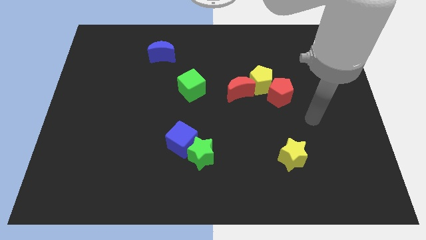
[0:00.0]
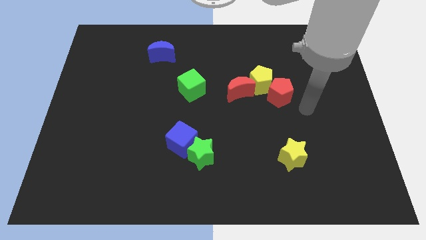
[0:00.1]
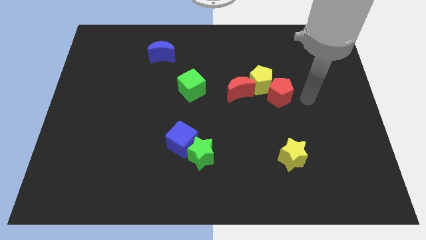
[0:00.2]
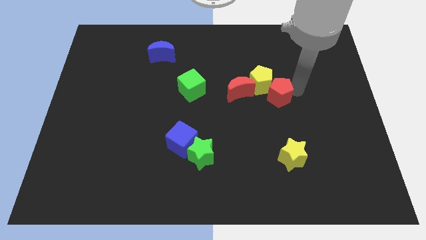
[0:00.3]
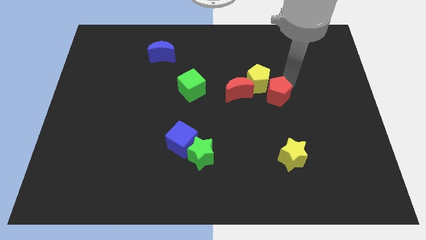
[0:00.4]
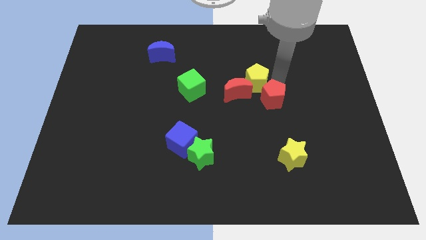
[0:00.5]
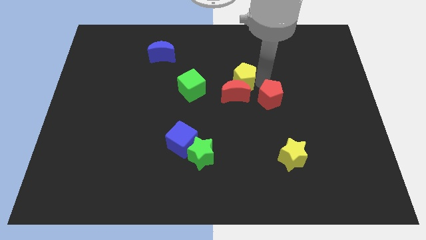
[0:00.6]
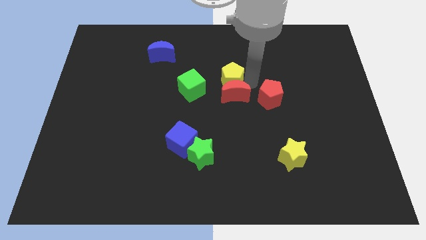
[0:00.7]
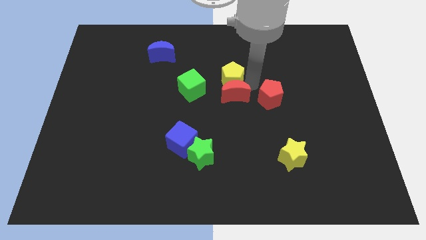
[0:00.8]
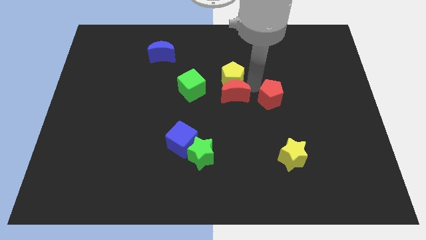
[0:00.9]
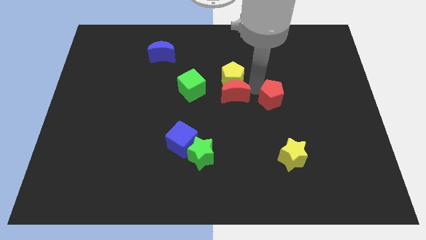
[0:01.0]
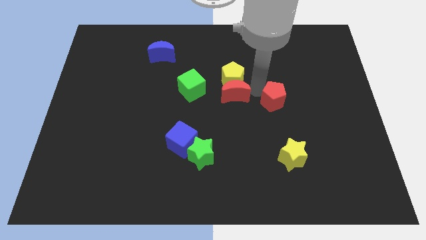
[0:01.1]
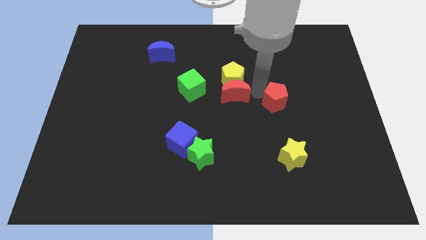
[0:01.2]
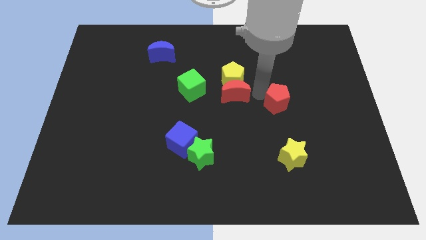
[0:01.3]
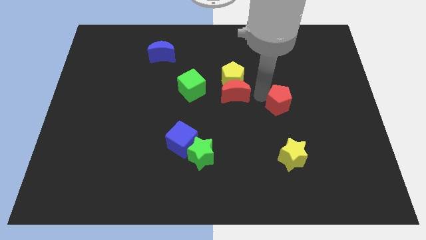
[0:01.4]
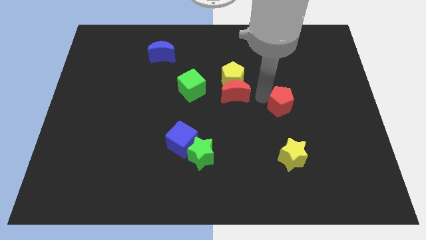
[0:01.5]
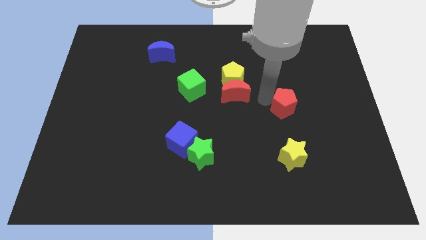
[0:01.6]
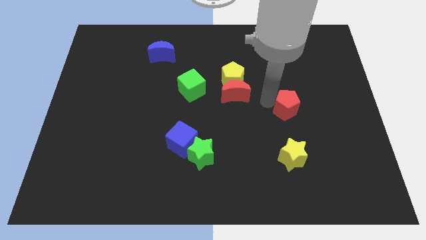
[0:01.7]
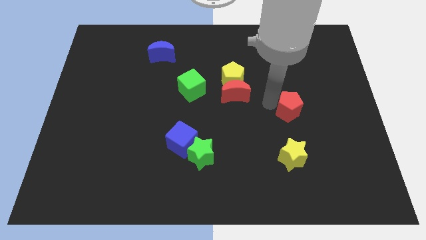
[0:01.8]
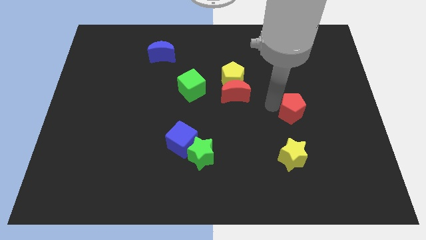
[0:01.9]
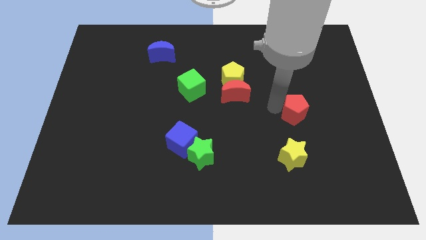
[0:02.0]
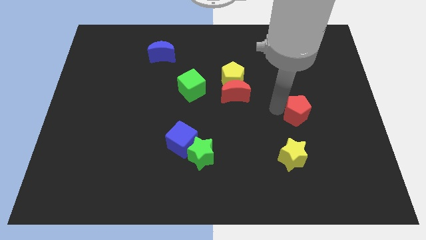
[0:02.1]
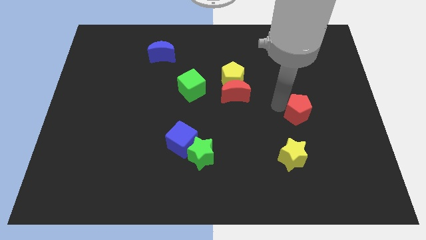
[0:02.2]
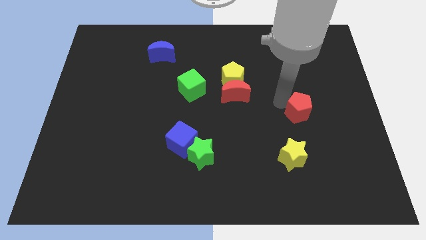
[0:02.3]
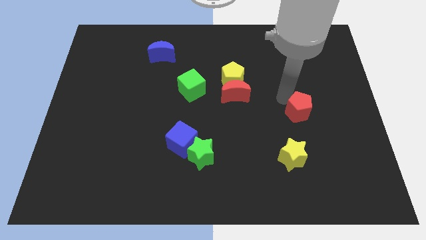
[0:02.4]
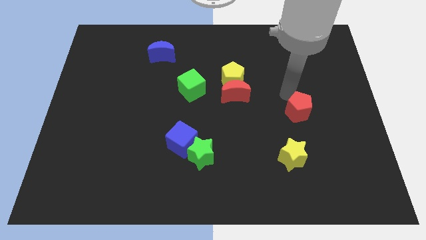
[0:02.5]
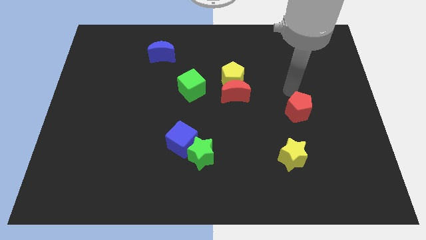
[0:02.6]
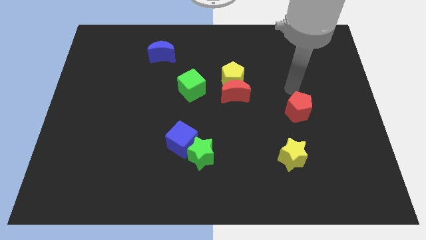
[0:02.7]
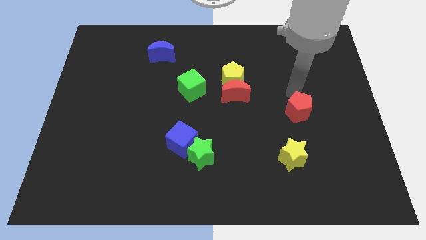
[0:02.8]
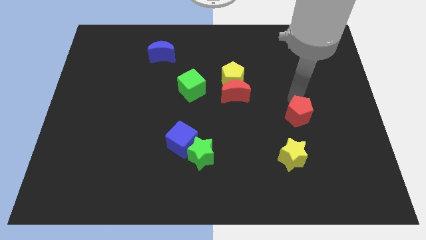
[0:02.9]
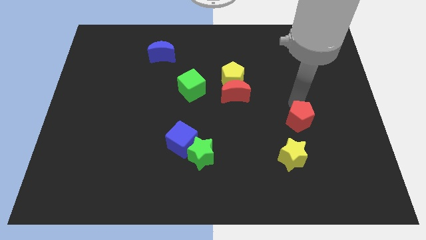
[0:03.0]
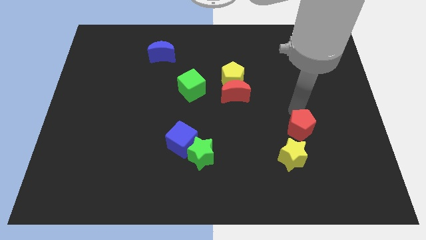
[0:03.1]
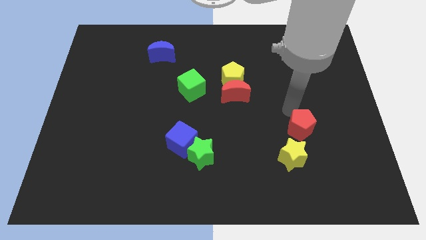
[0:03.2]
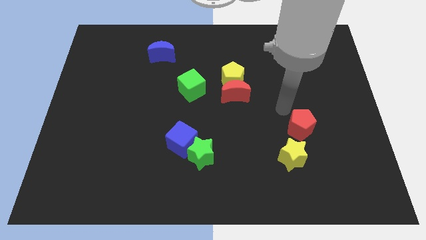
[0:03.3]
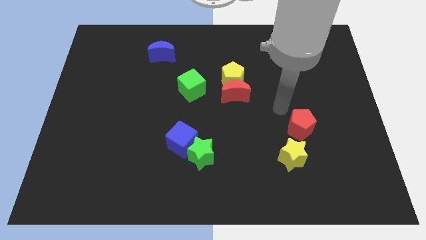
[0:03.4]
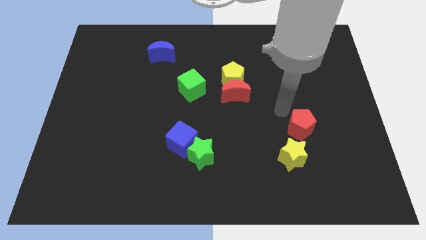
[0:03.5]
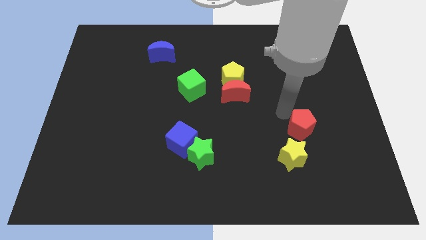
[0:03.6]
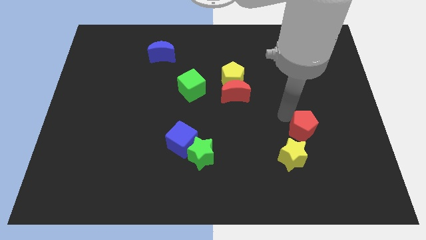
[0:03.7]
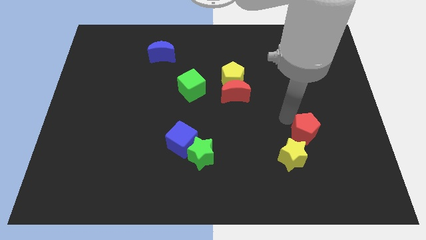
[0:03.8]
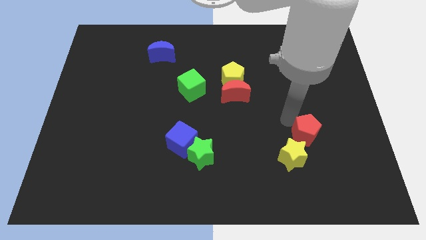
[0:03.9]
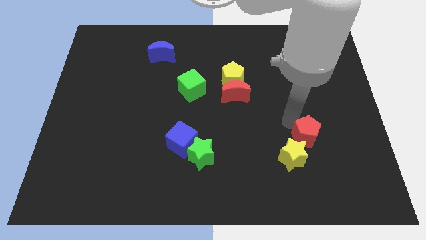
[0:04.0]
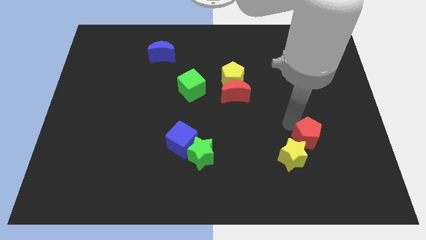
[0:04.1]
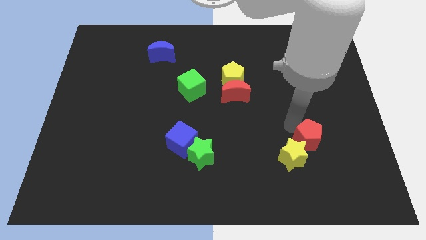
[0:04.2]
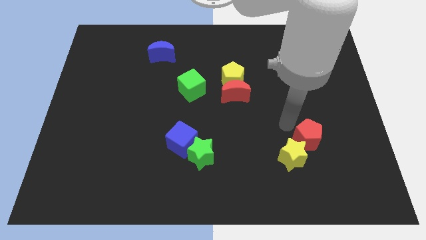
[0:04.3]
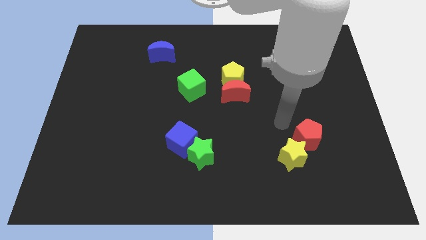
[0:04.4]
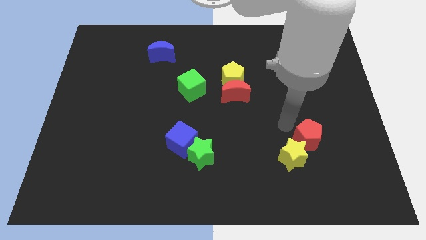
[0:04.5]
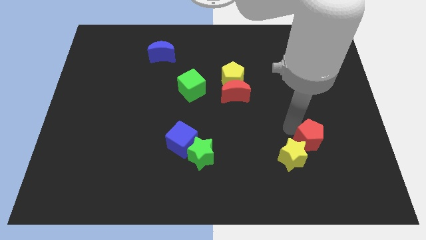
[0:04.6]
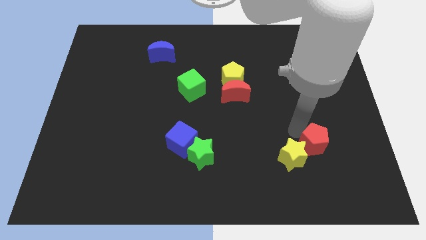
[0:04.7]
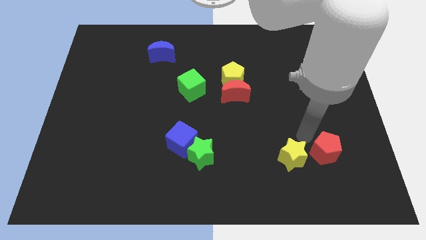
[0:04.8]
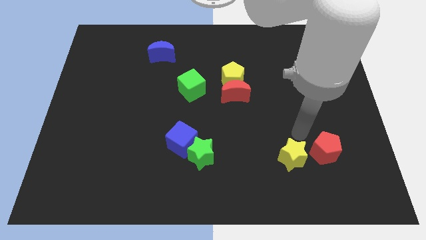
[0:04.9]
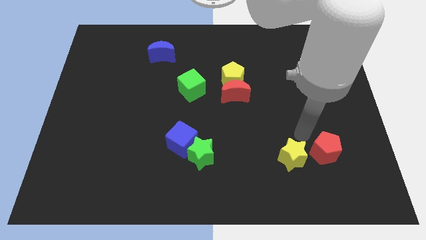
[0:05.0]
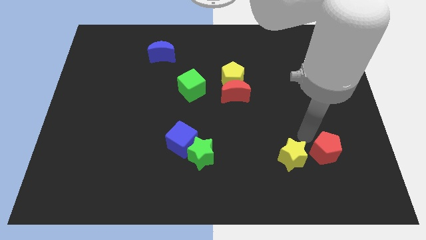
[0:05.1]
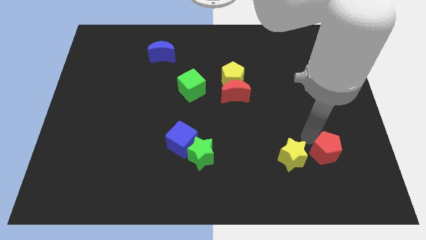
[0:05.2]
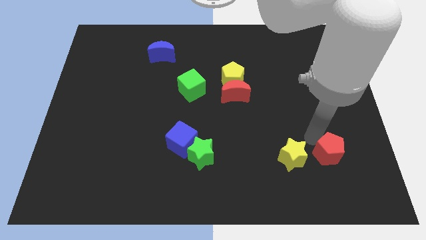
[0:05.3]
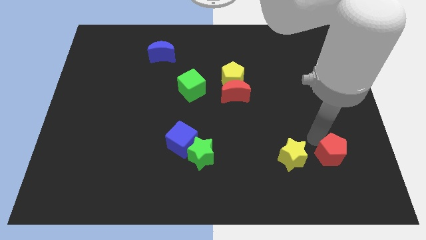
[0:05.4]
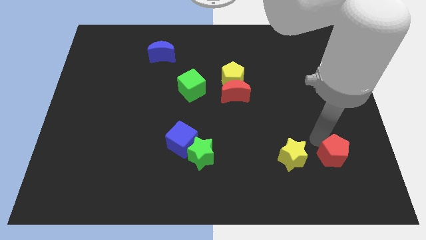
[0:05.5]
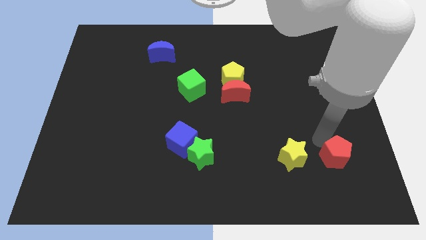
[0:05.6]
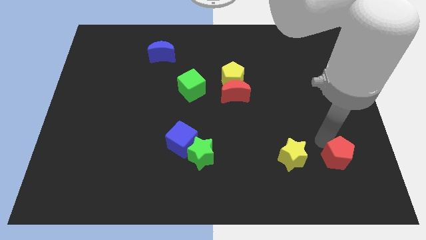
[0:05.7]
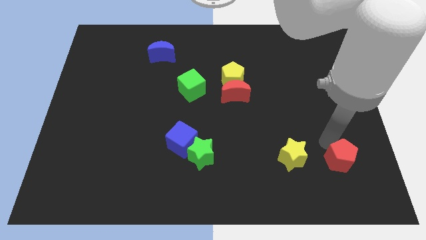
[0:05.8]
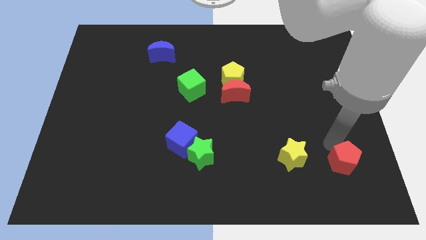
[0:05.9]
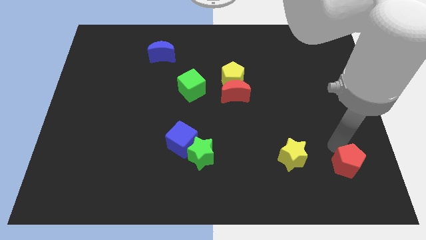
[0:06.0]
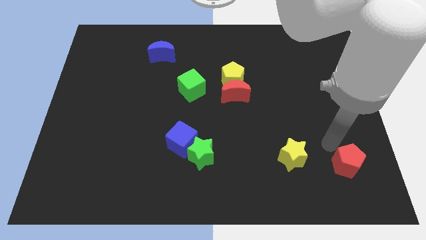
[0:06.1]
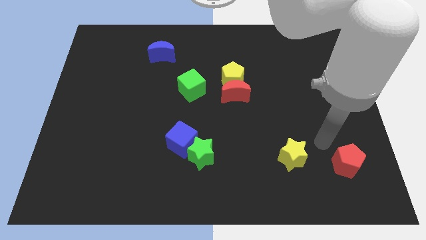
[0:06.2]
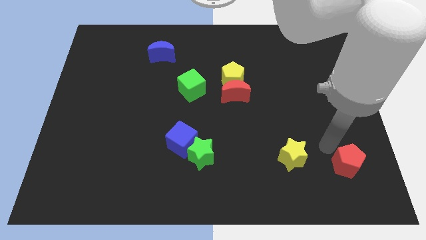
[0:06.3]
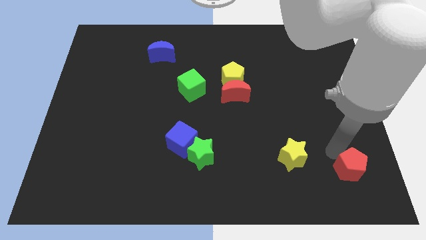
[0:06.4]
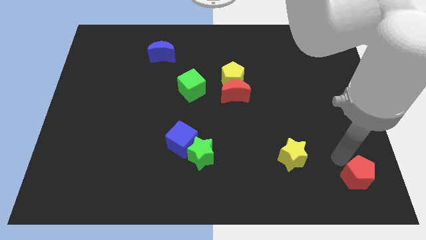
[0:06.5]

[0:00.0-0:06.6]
put the red pentagon to the bottom right corner

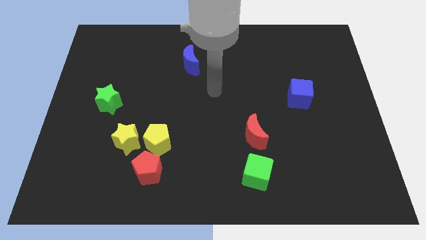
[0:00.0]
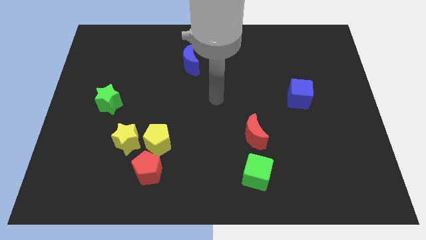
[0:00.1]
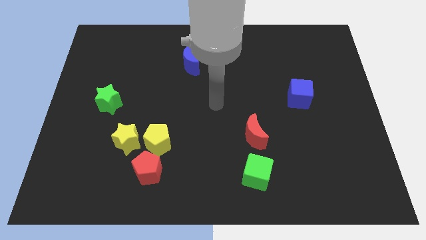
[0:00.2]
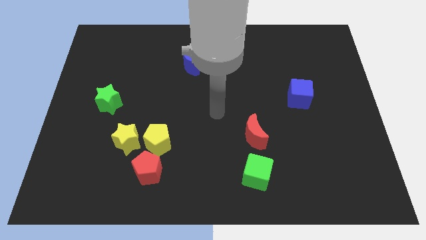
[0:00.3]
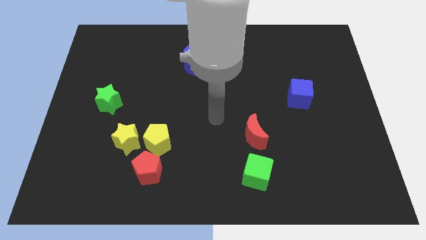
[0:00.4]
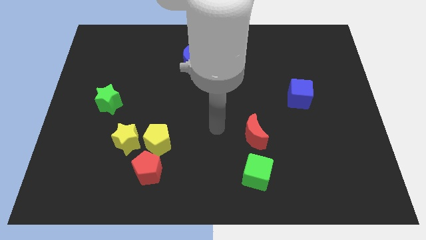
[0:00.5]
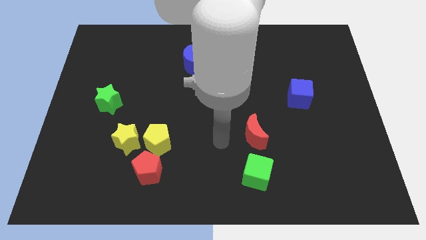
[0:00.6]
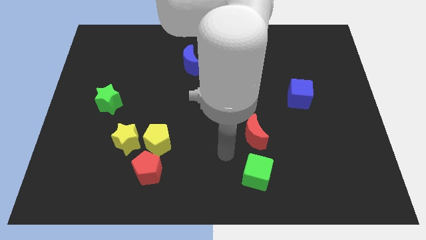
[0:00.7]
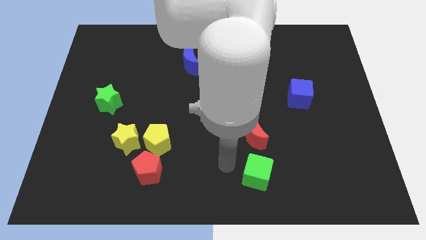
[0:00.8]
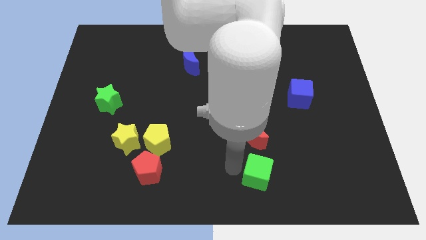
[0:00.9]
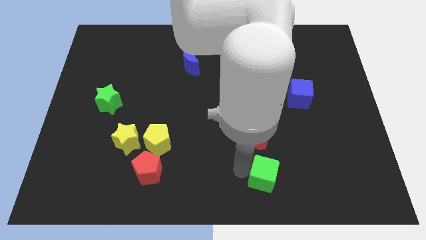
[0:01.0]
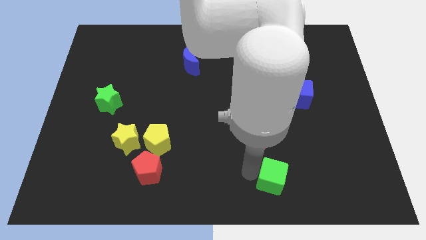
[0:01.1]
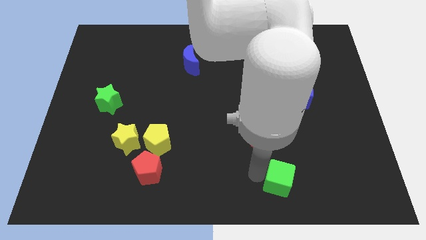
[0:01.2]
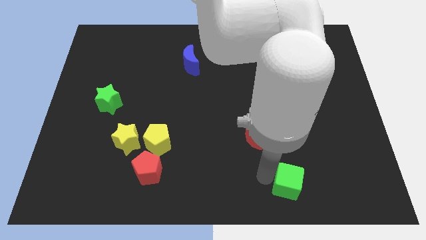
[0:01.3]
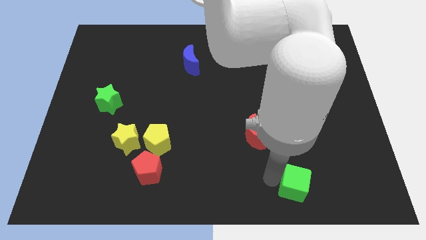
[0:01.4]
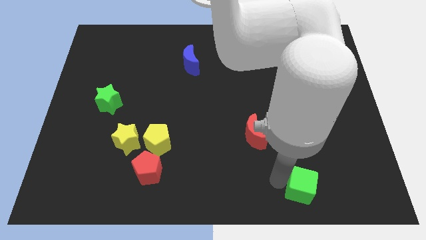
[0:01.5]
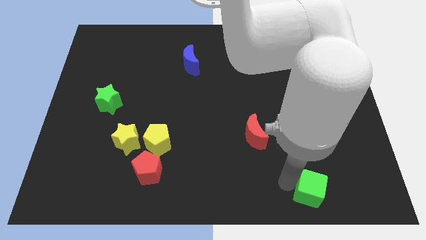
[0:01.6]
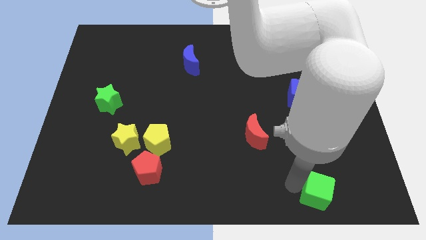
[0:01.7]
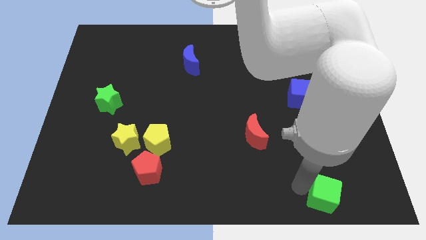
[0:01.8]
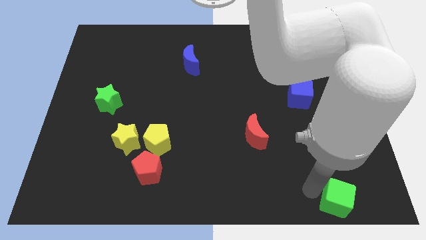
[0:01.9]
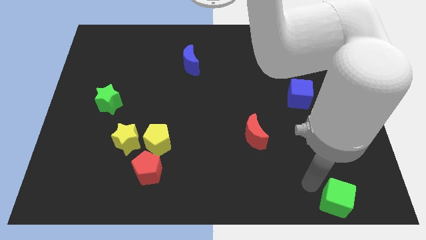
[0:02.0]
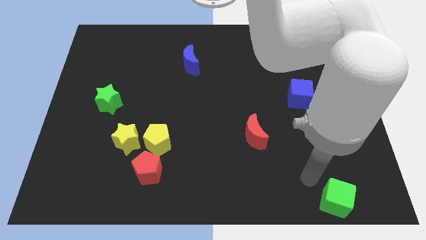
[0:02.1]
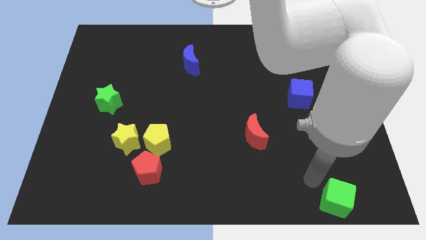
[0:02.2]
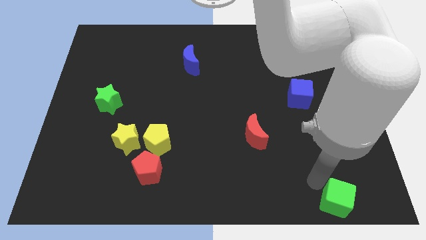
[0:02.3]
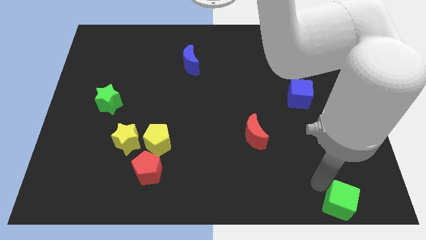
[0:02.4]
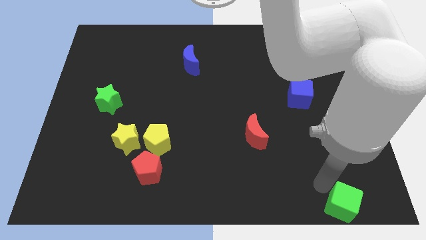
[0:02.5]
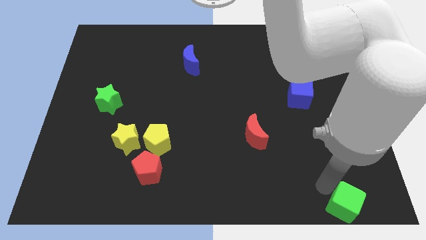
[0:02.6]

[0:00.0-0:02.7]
slide the green cube to the lower right corner
